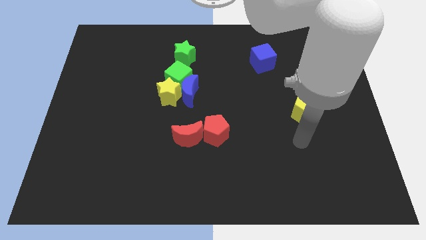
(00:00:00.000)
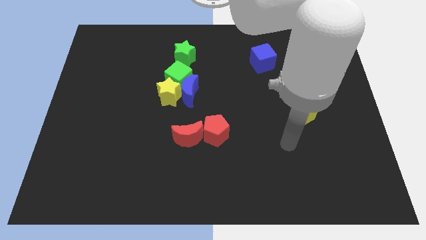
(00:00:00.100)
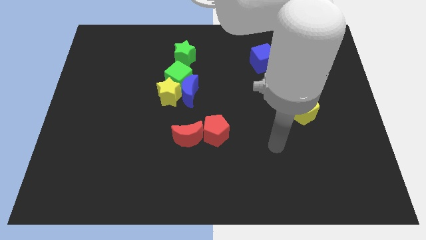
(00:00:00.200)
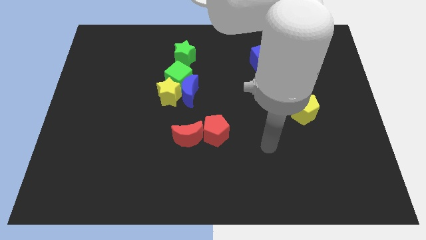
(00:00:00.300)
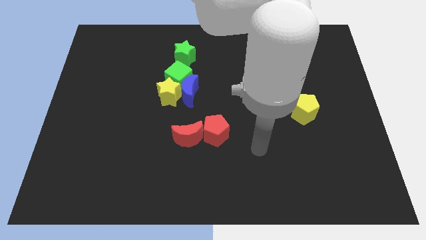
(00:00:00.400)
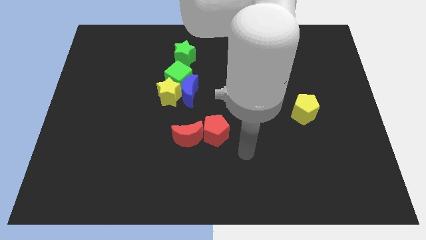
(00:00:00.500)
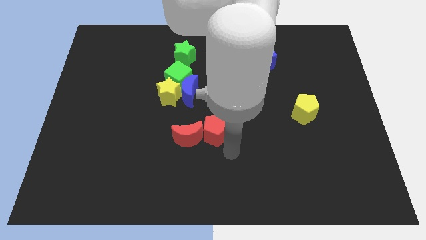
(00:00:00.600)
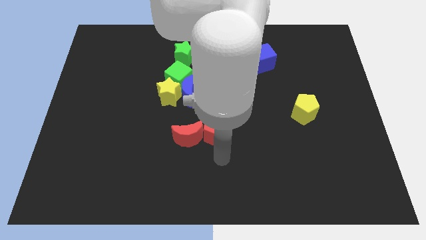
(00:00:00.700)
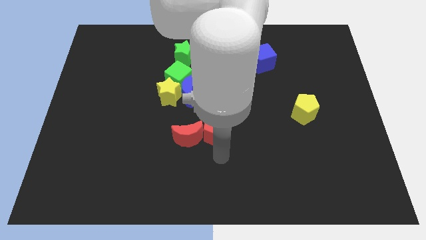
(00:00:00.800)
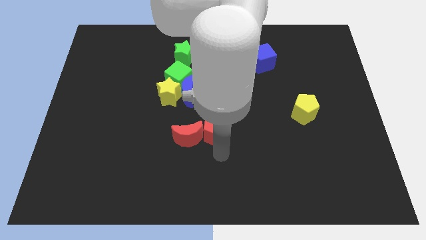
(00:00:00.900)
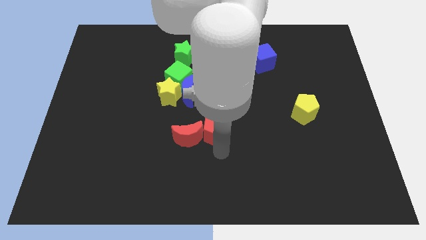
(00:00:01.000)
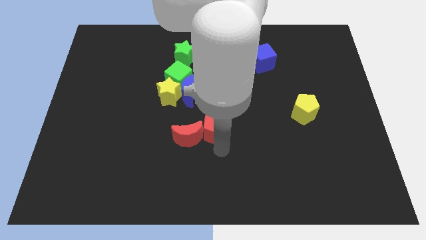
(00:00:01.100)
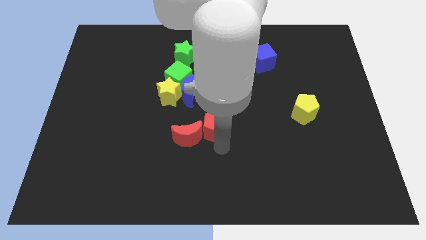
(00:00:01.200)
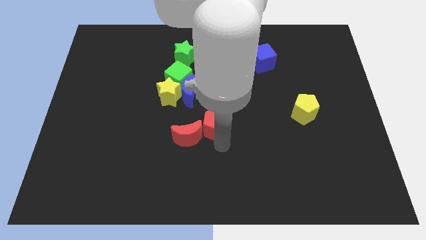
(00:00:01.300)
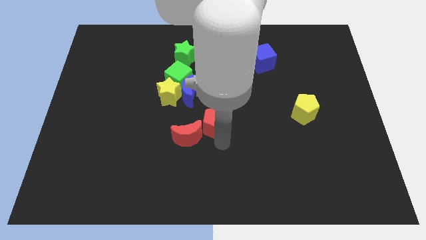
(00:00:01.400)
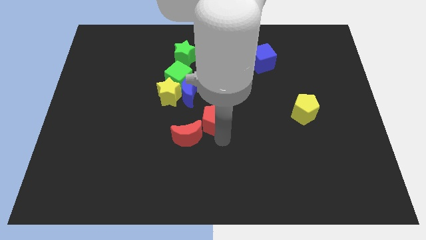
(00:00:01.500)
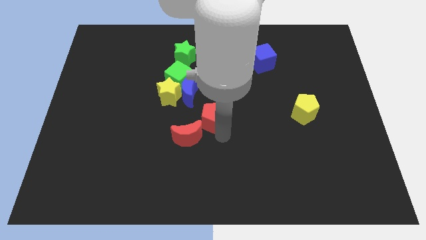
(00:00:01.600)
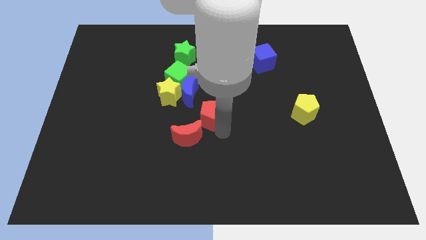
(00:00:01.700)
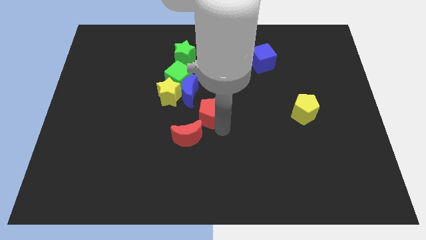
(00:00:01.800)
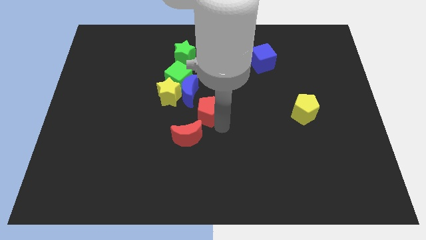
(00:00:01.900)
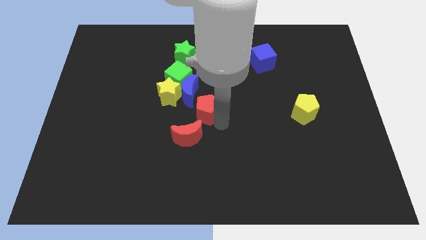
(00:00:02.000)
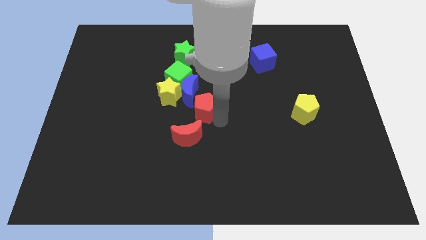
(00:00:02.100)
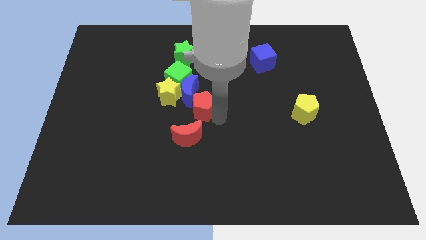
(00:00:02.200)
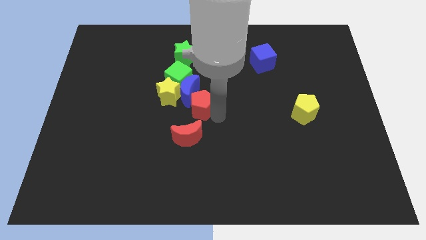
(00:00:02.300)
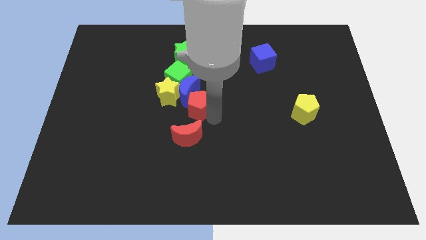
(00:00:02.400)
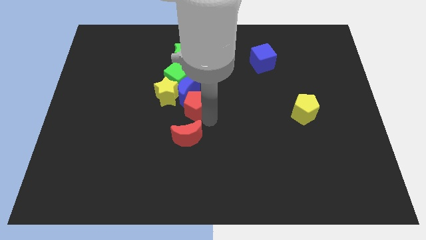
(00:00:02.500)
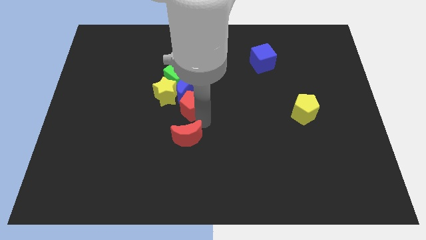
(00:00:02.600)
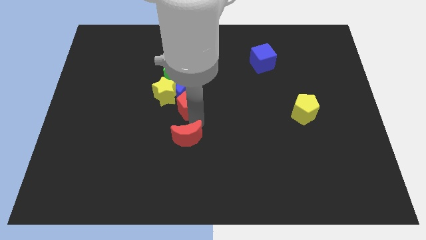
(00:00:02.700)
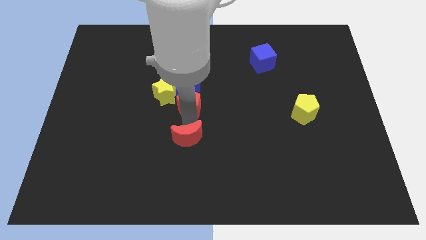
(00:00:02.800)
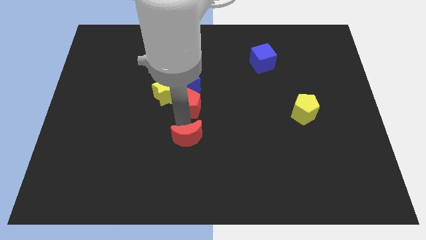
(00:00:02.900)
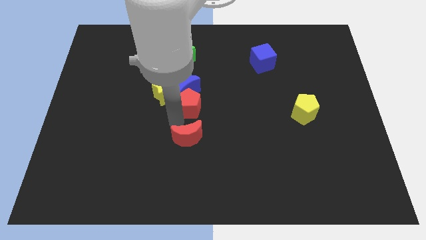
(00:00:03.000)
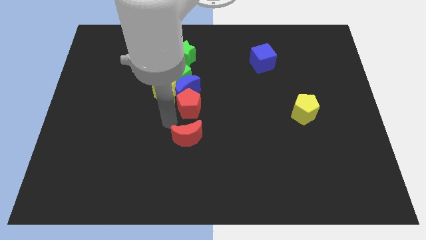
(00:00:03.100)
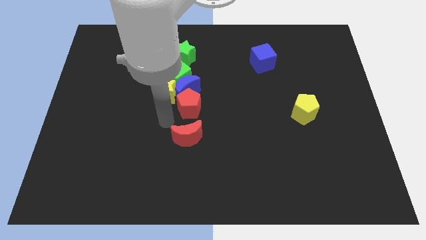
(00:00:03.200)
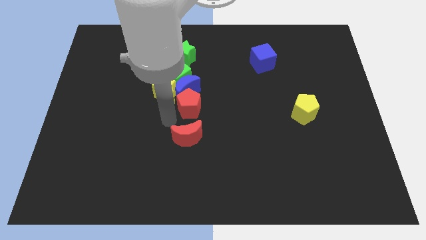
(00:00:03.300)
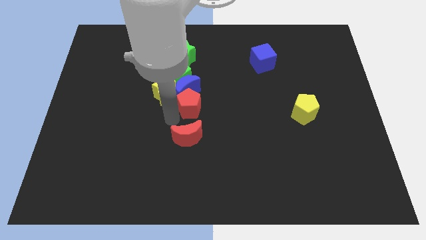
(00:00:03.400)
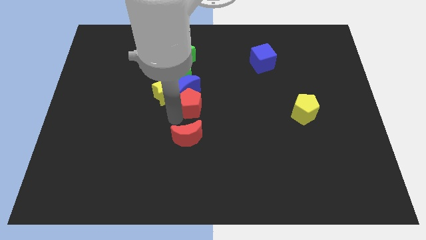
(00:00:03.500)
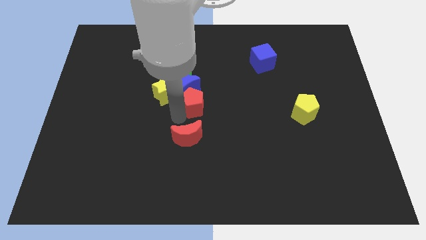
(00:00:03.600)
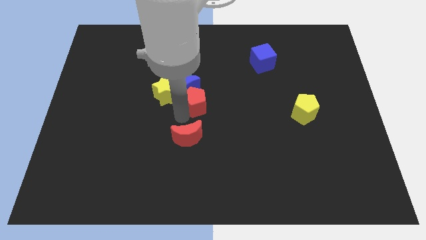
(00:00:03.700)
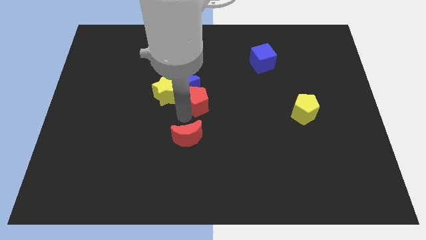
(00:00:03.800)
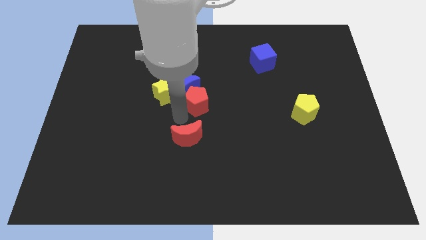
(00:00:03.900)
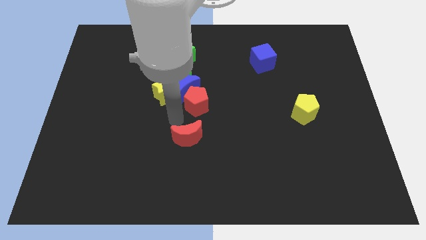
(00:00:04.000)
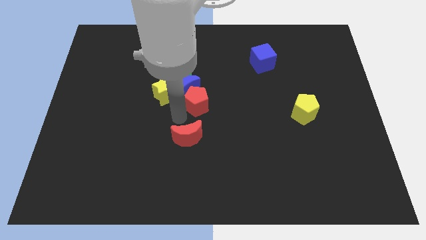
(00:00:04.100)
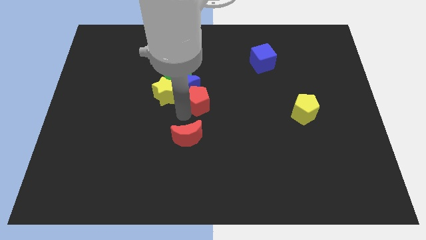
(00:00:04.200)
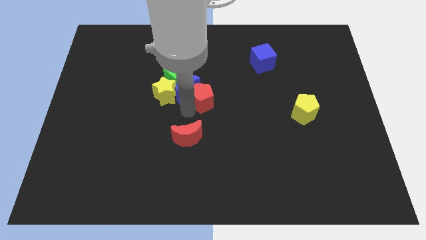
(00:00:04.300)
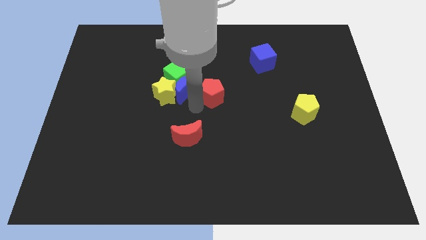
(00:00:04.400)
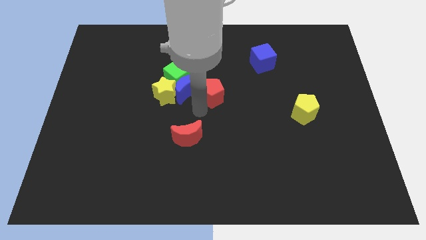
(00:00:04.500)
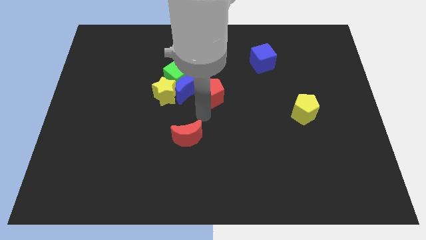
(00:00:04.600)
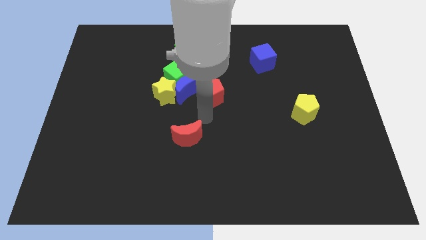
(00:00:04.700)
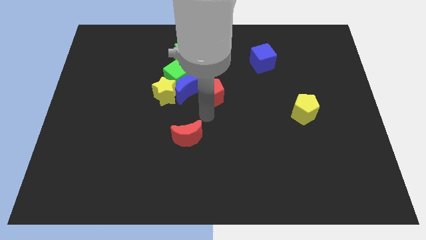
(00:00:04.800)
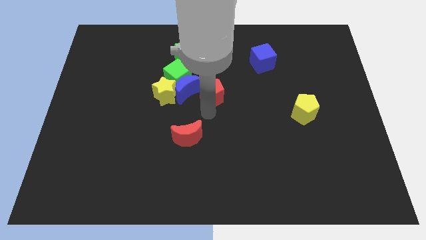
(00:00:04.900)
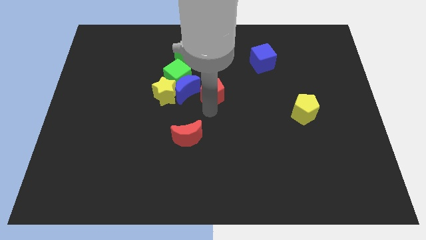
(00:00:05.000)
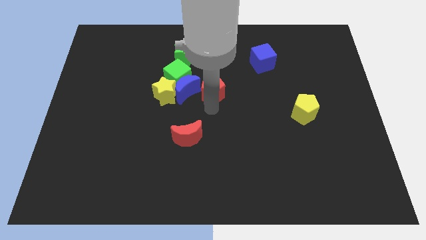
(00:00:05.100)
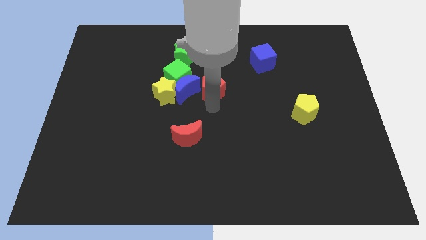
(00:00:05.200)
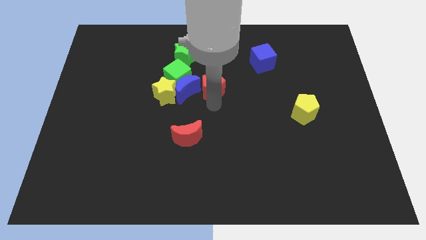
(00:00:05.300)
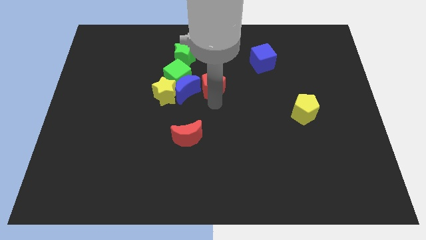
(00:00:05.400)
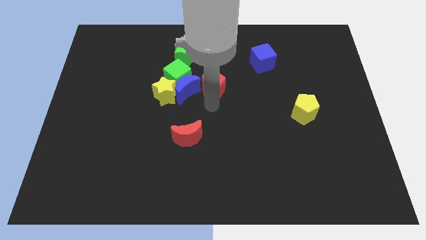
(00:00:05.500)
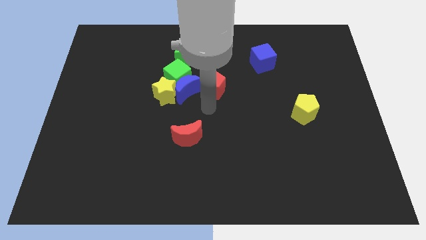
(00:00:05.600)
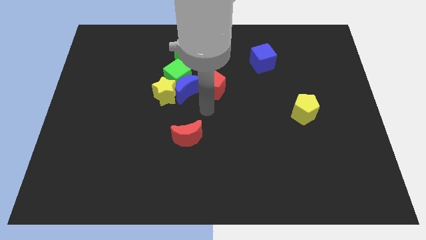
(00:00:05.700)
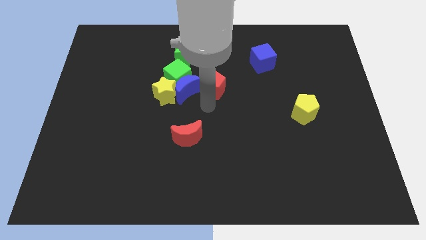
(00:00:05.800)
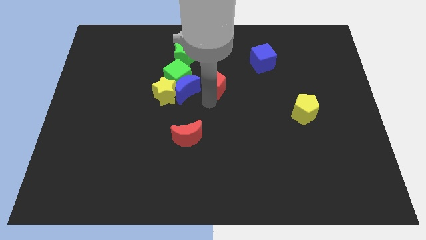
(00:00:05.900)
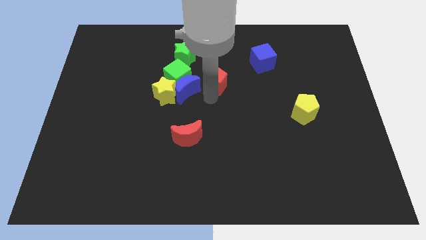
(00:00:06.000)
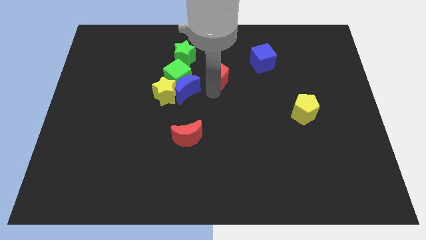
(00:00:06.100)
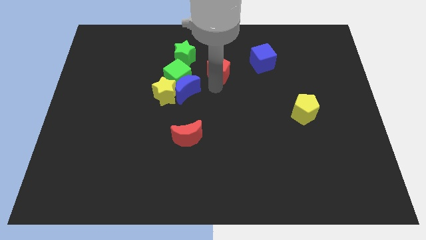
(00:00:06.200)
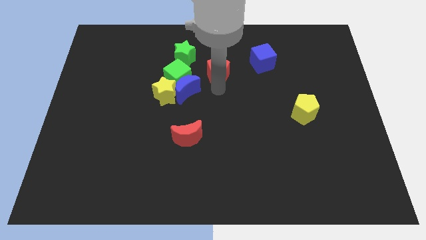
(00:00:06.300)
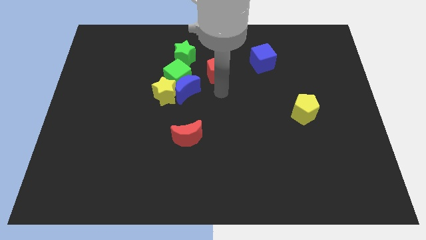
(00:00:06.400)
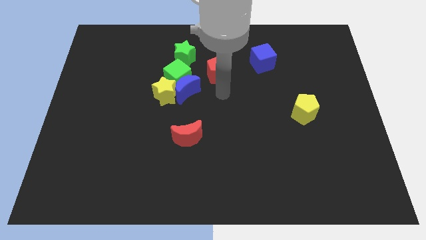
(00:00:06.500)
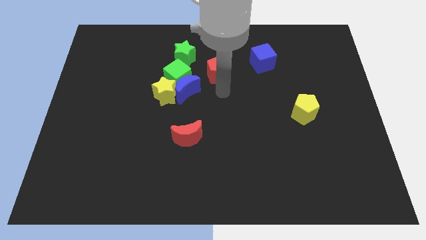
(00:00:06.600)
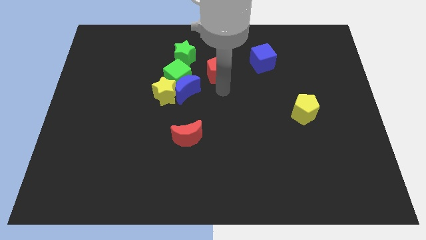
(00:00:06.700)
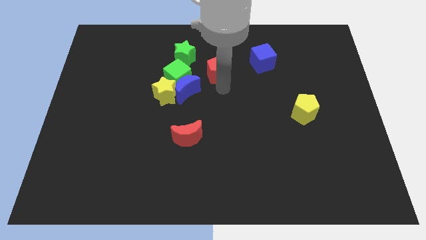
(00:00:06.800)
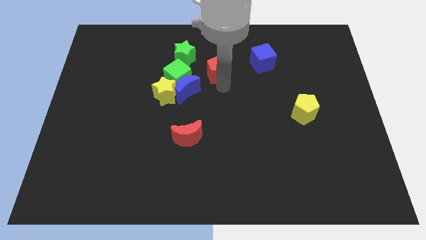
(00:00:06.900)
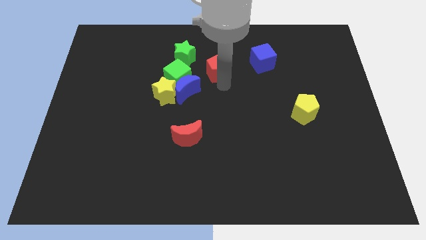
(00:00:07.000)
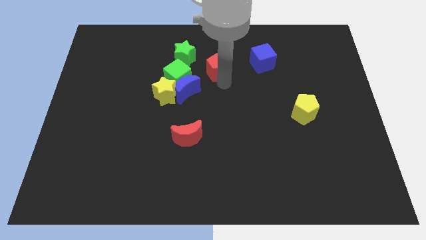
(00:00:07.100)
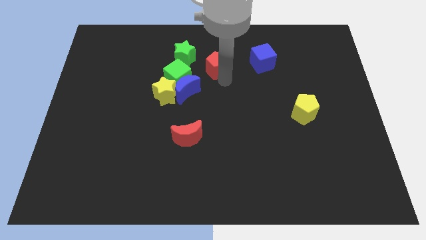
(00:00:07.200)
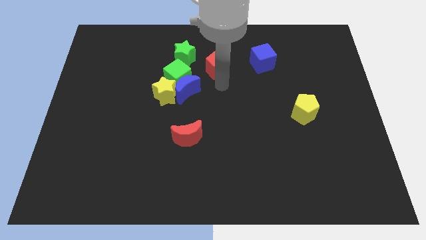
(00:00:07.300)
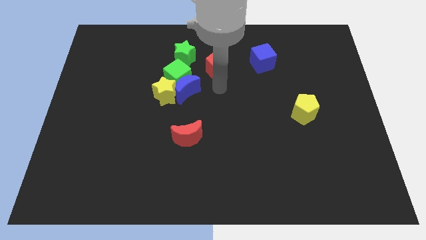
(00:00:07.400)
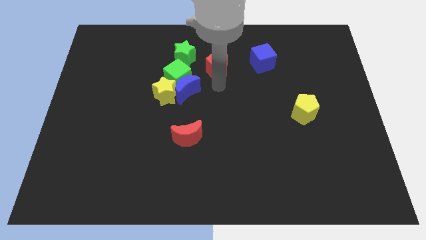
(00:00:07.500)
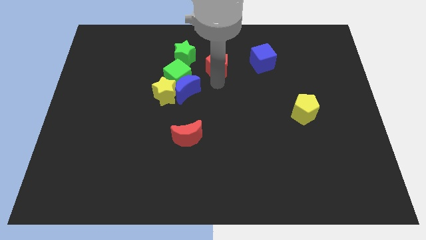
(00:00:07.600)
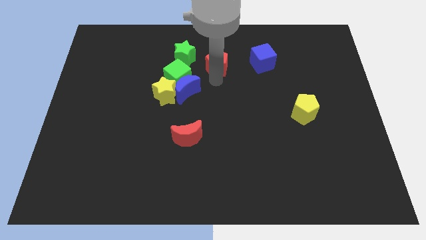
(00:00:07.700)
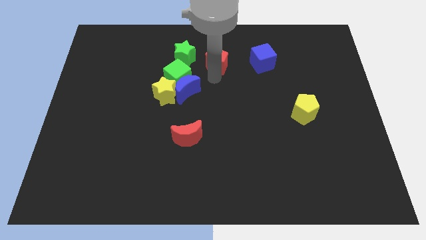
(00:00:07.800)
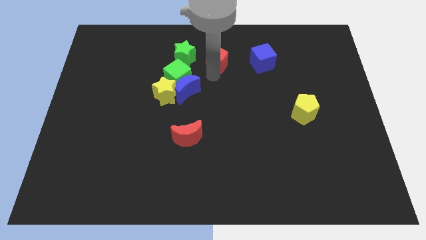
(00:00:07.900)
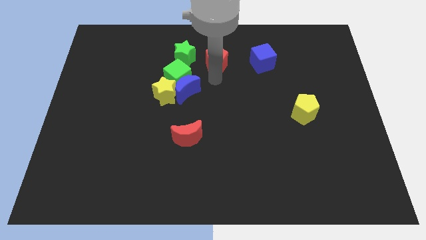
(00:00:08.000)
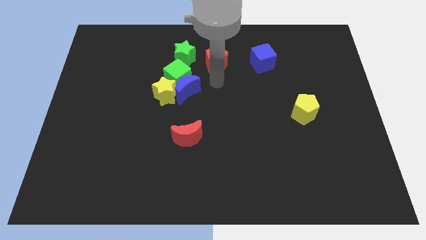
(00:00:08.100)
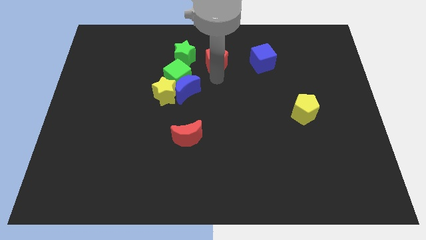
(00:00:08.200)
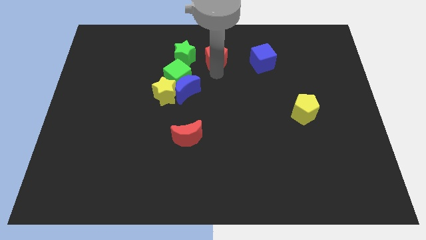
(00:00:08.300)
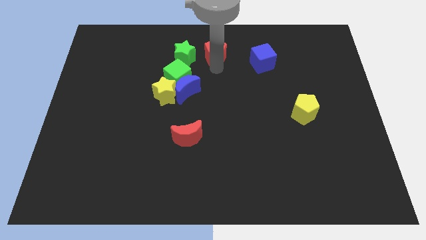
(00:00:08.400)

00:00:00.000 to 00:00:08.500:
slide the red pentagon to the top side
